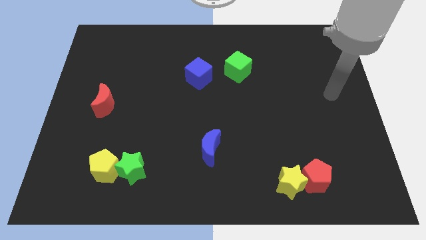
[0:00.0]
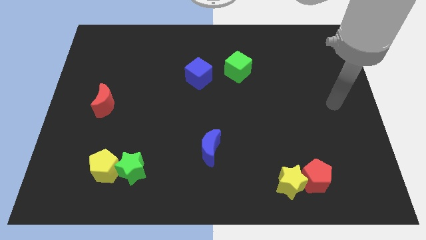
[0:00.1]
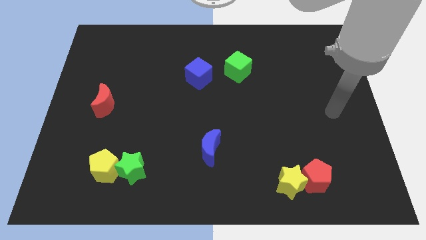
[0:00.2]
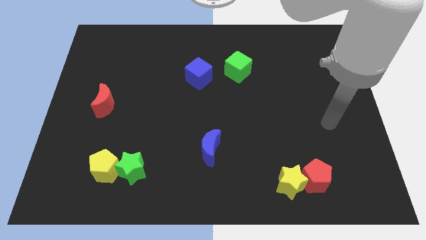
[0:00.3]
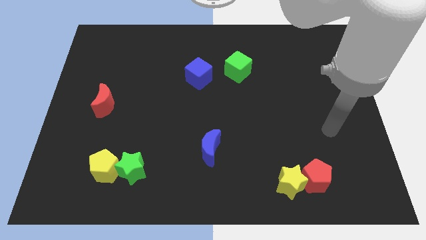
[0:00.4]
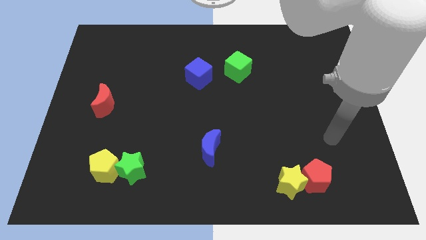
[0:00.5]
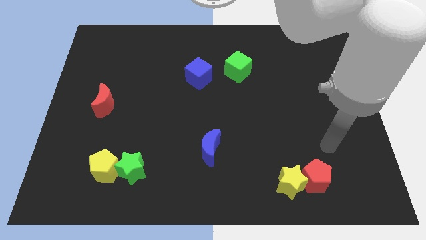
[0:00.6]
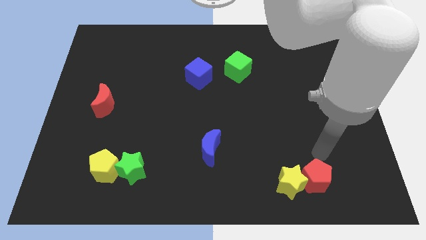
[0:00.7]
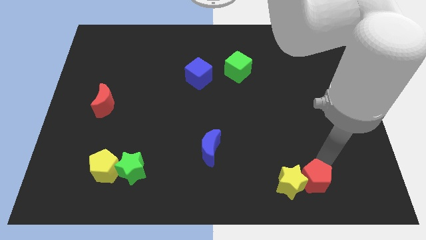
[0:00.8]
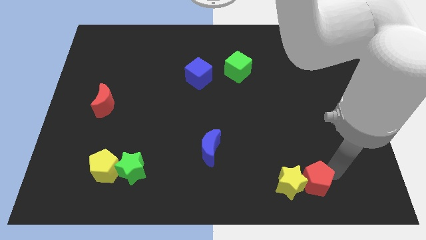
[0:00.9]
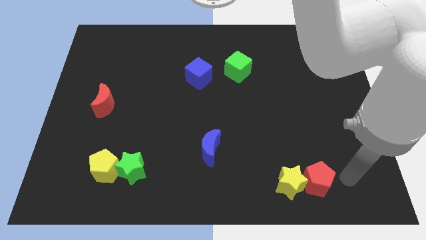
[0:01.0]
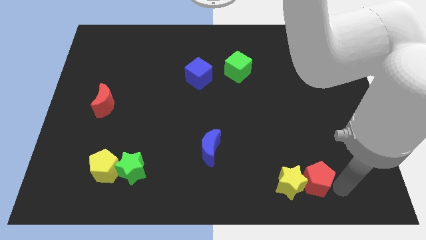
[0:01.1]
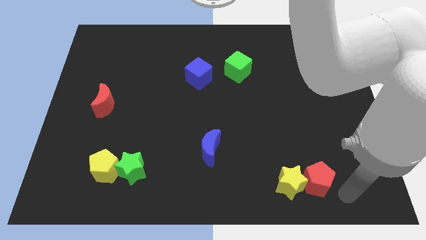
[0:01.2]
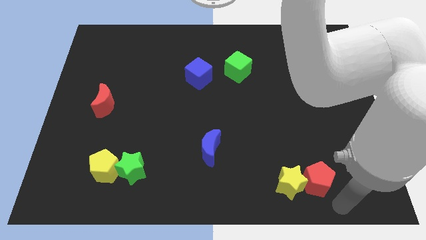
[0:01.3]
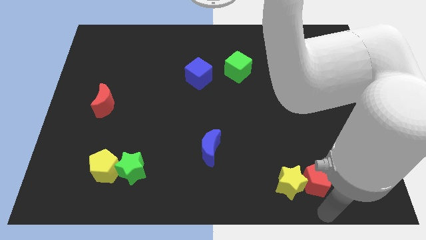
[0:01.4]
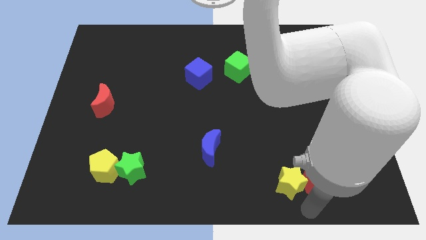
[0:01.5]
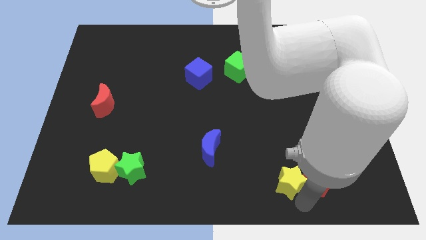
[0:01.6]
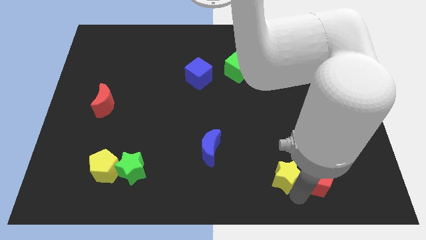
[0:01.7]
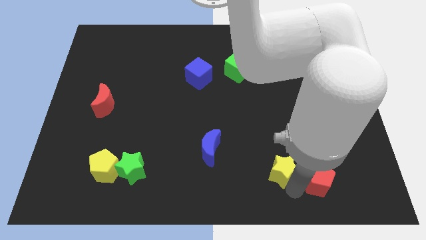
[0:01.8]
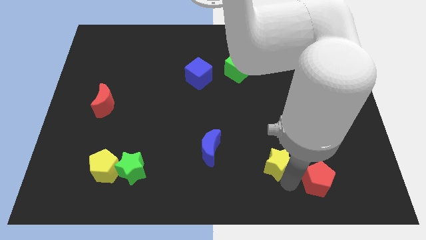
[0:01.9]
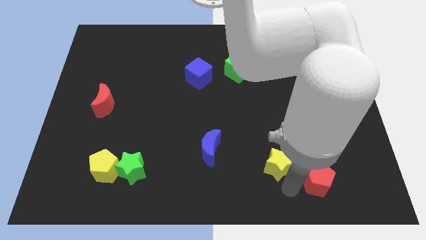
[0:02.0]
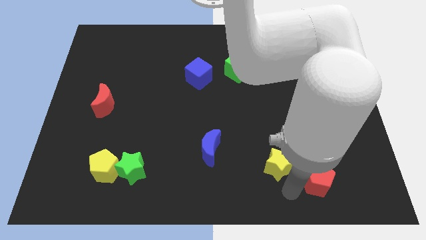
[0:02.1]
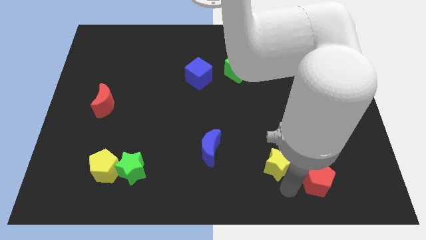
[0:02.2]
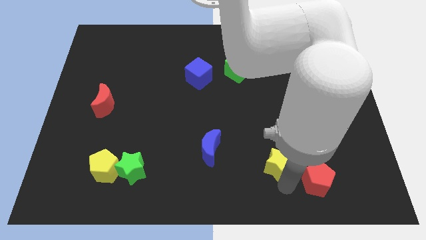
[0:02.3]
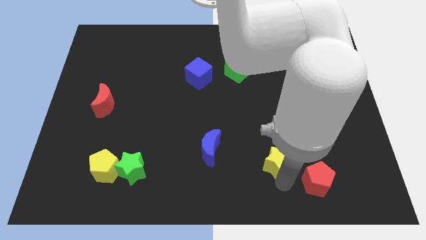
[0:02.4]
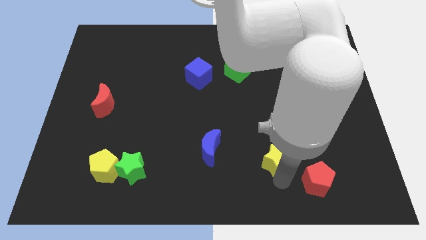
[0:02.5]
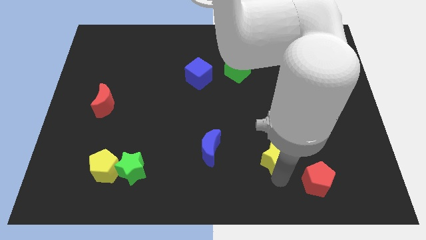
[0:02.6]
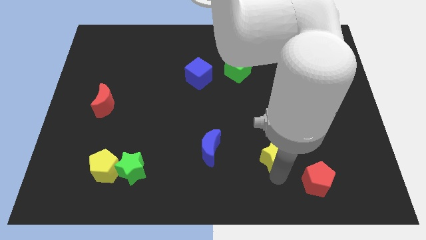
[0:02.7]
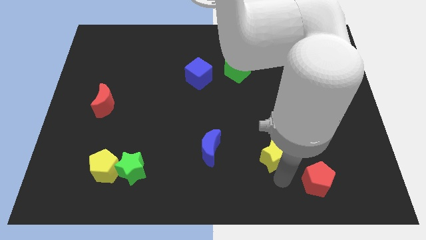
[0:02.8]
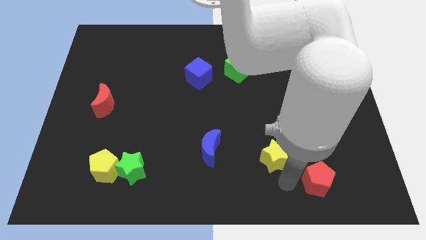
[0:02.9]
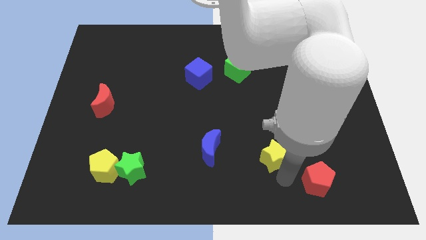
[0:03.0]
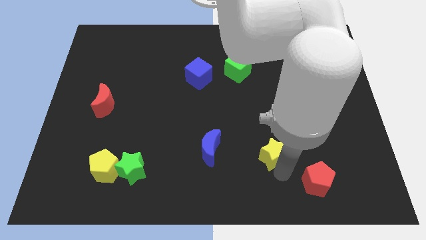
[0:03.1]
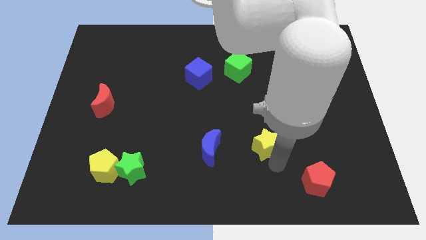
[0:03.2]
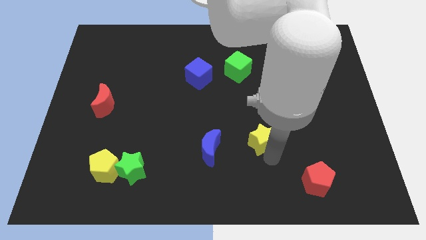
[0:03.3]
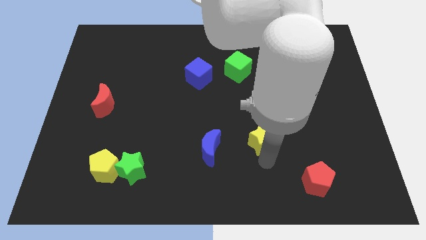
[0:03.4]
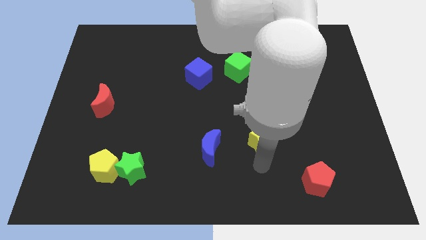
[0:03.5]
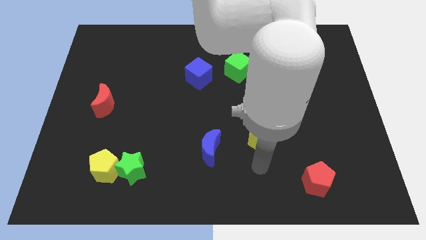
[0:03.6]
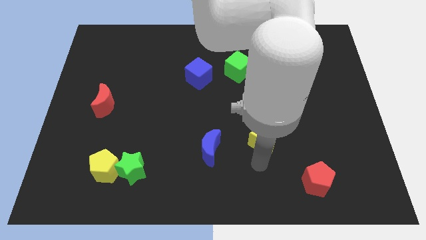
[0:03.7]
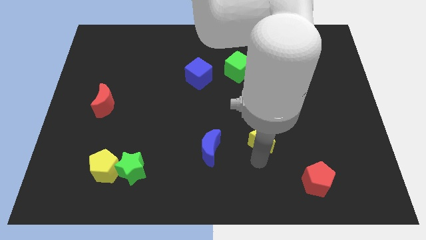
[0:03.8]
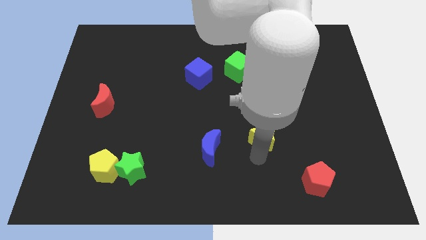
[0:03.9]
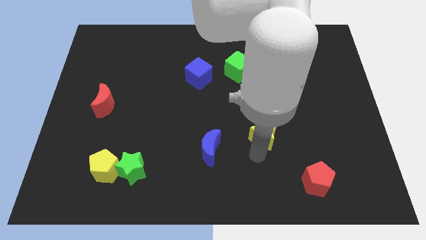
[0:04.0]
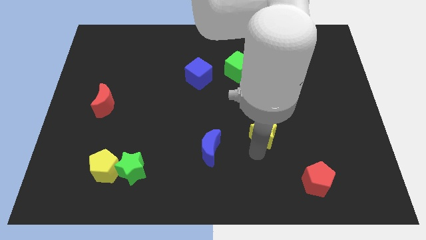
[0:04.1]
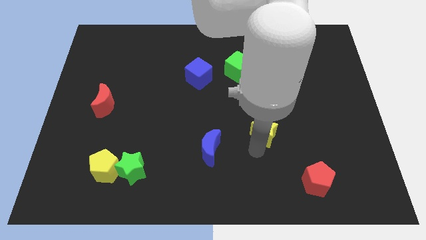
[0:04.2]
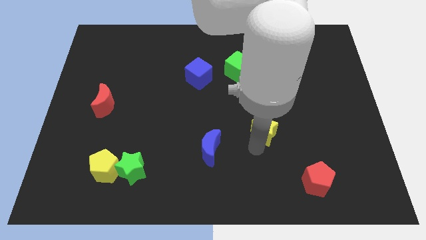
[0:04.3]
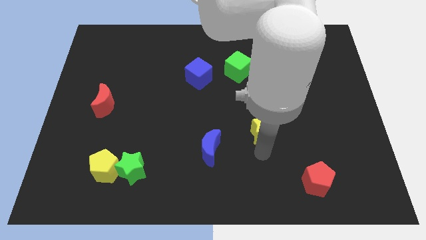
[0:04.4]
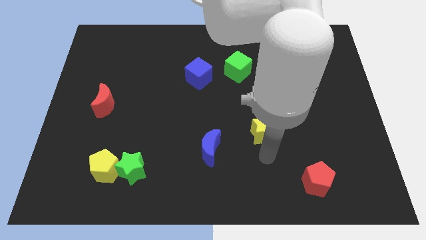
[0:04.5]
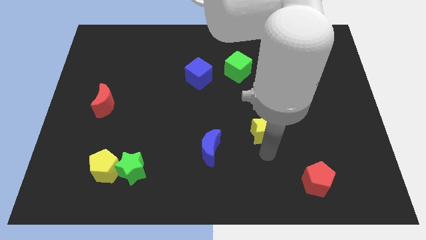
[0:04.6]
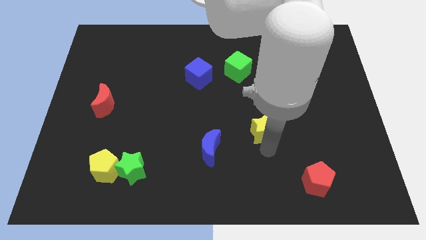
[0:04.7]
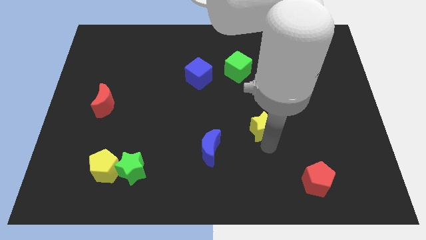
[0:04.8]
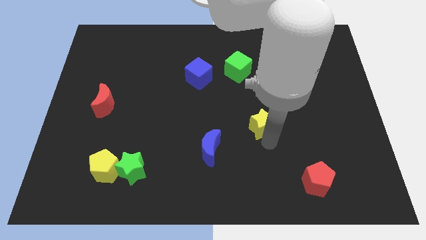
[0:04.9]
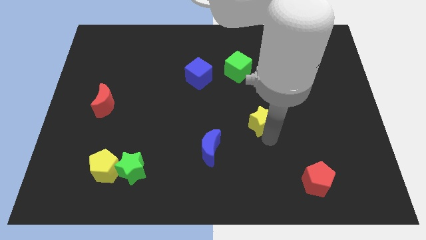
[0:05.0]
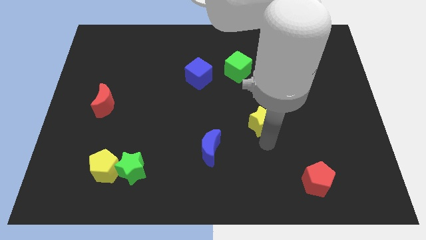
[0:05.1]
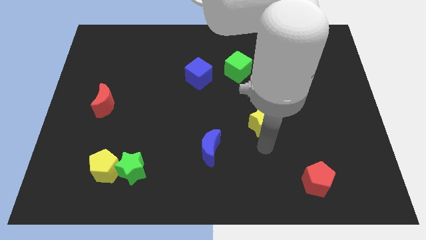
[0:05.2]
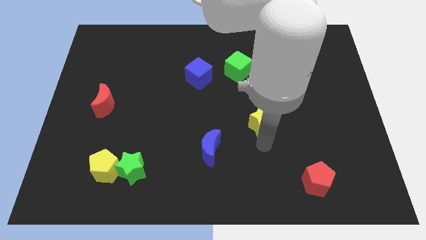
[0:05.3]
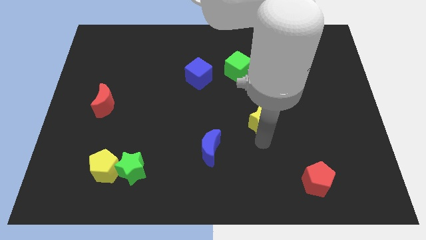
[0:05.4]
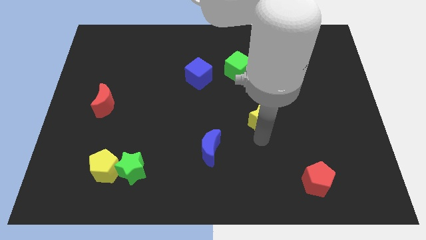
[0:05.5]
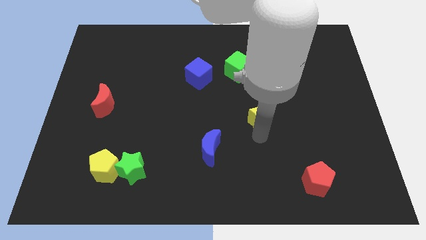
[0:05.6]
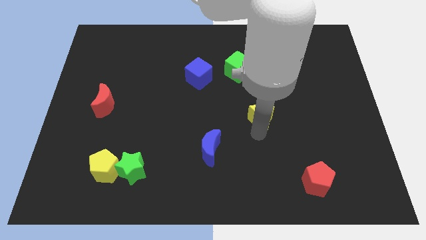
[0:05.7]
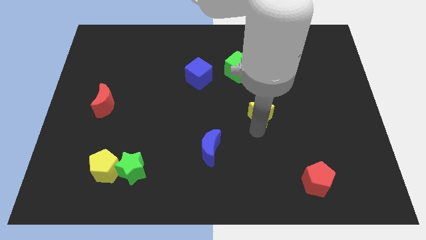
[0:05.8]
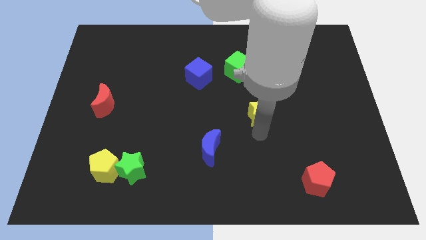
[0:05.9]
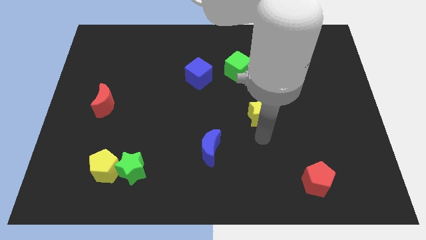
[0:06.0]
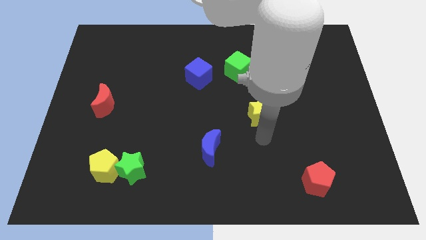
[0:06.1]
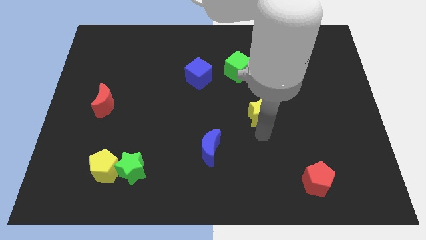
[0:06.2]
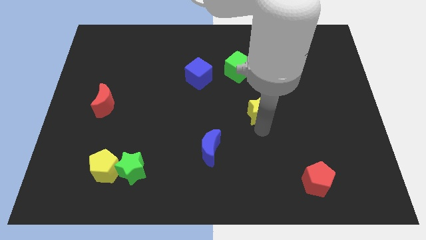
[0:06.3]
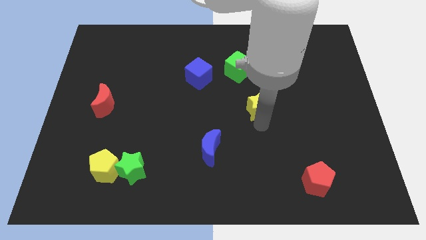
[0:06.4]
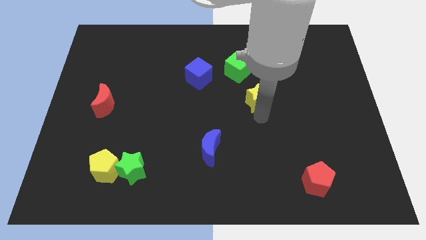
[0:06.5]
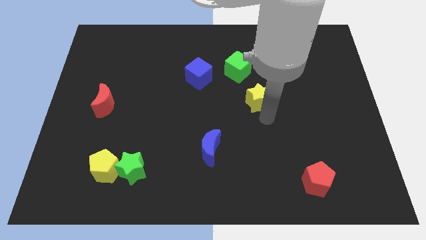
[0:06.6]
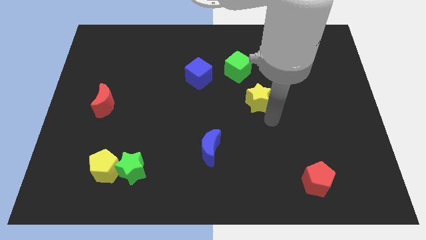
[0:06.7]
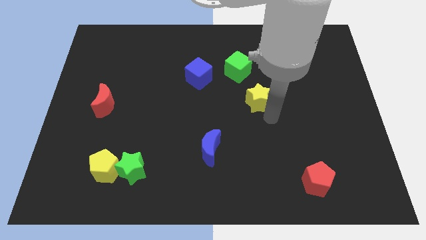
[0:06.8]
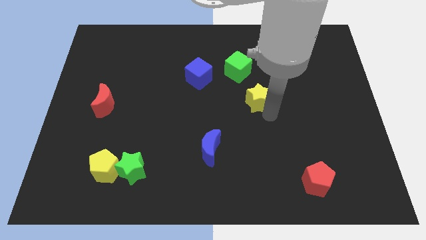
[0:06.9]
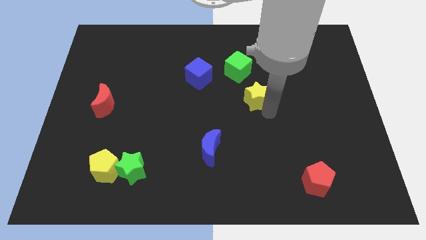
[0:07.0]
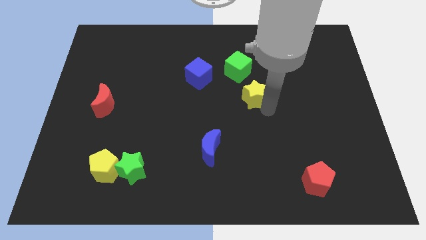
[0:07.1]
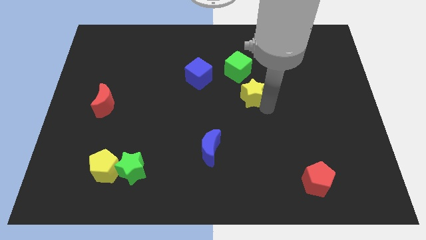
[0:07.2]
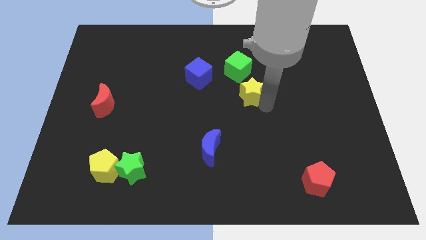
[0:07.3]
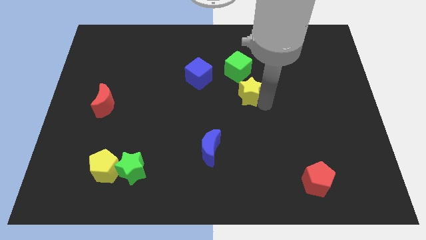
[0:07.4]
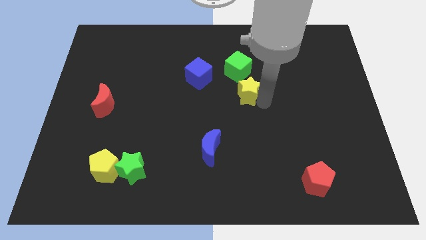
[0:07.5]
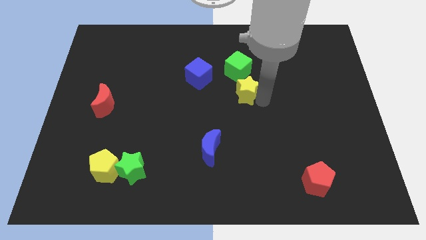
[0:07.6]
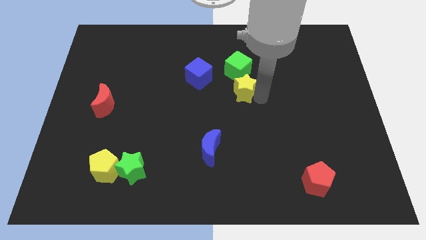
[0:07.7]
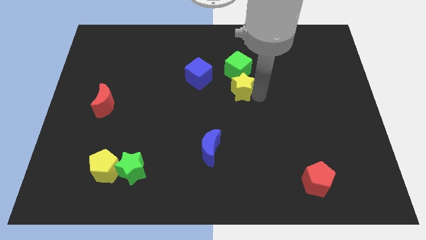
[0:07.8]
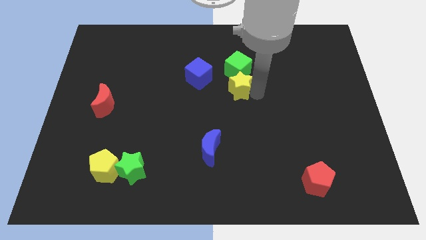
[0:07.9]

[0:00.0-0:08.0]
move the yellow star to the green cube
